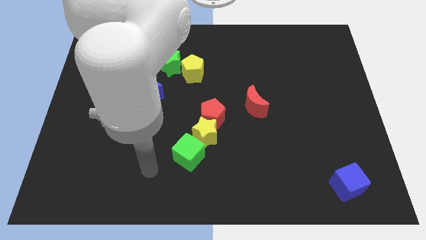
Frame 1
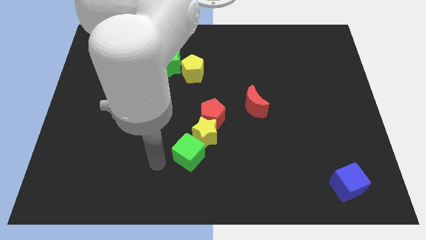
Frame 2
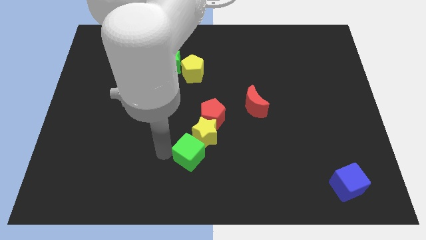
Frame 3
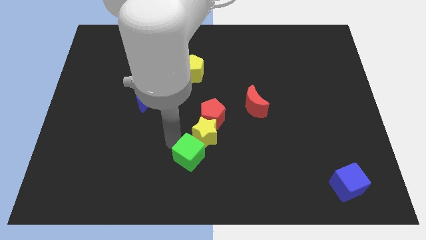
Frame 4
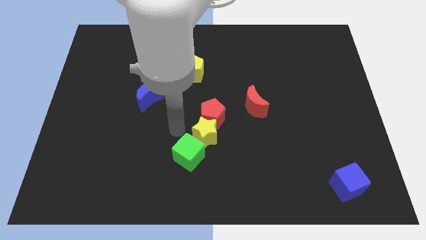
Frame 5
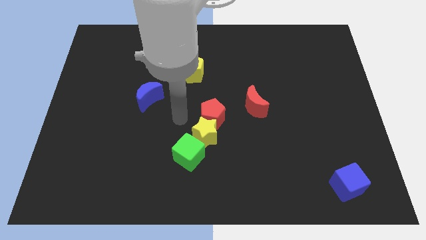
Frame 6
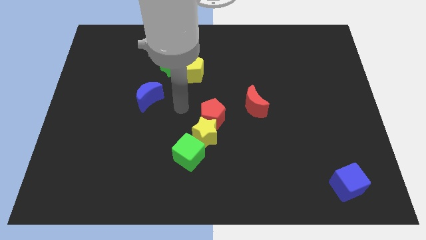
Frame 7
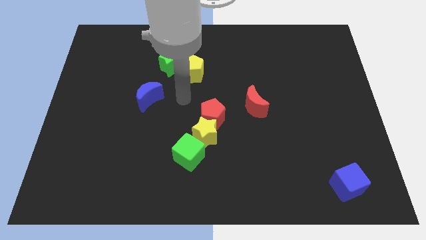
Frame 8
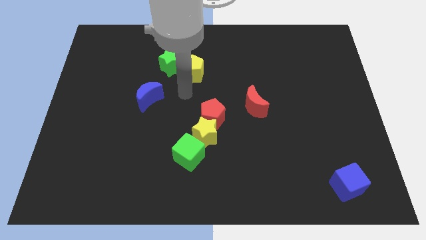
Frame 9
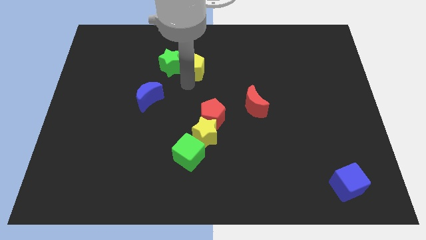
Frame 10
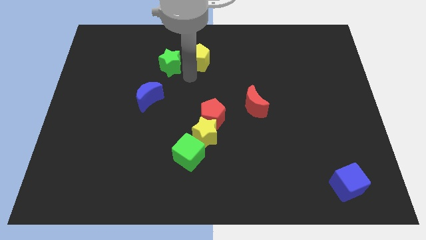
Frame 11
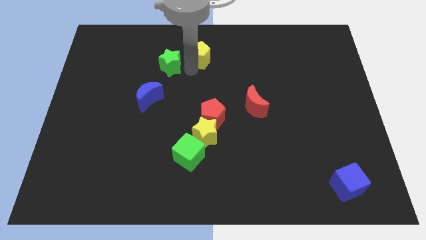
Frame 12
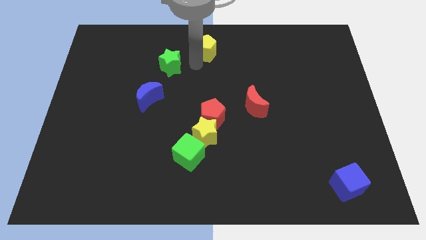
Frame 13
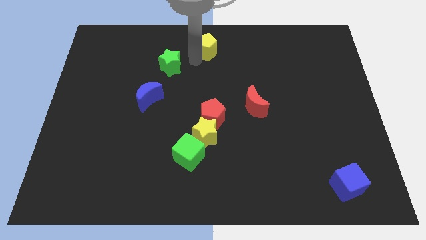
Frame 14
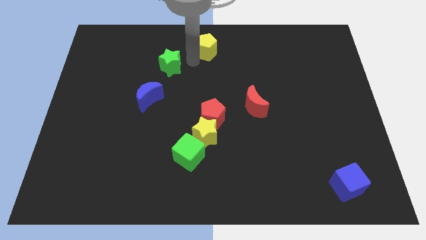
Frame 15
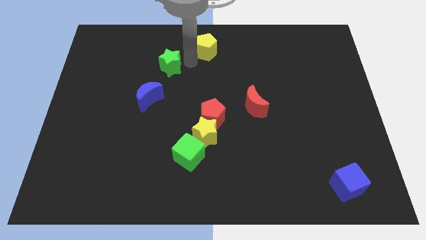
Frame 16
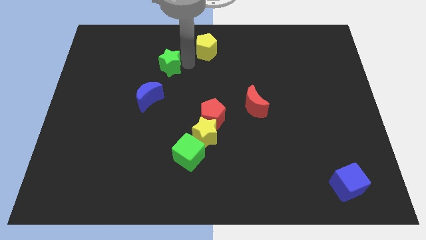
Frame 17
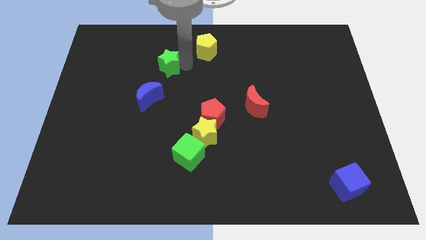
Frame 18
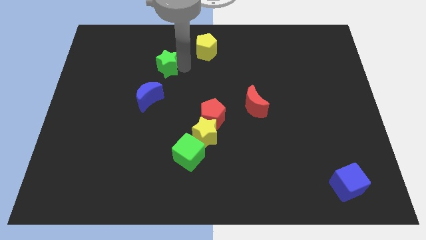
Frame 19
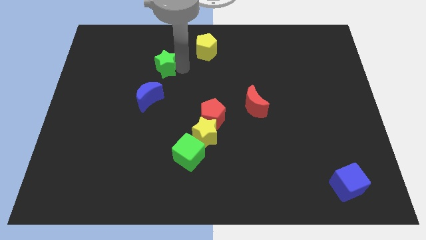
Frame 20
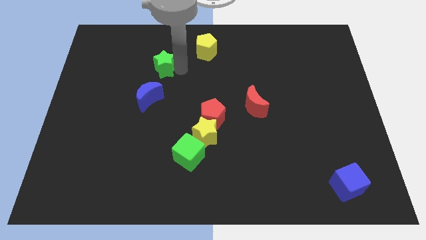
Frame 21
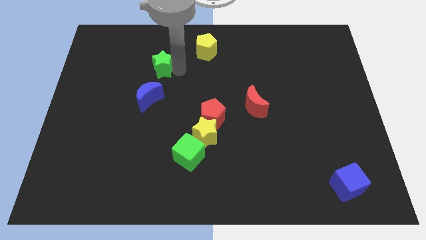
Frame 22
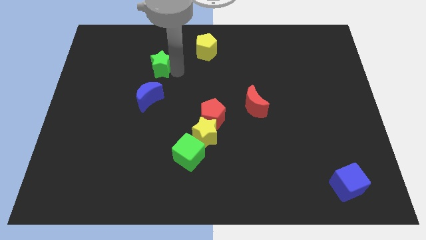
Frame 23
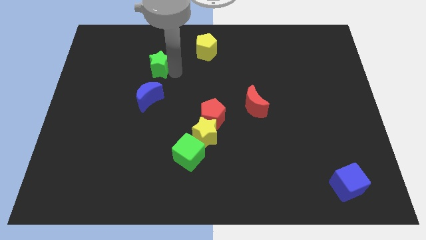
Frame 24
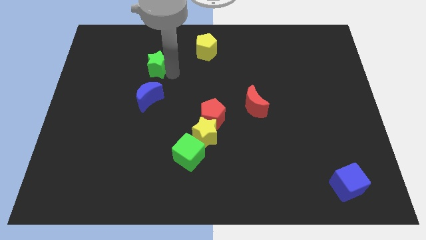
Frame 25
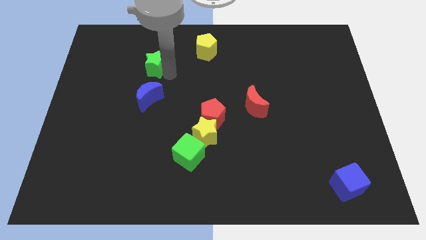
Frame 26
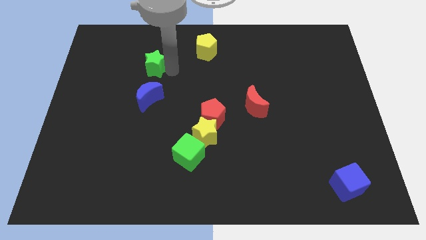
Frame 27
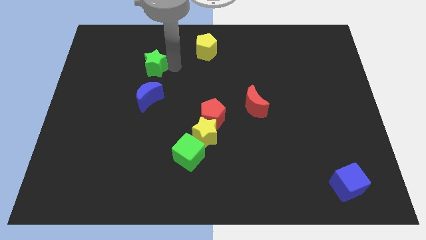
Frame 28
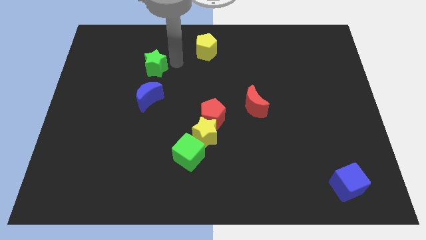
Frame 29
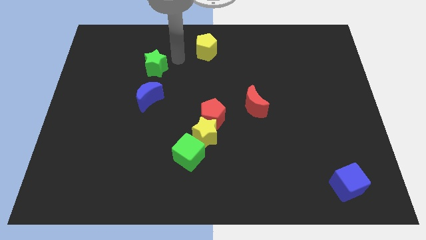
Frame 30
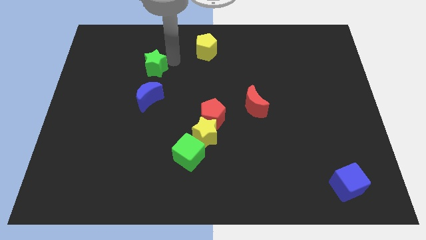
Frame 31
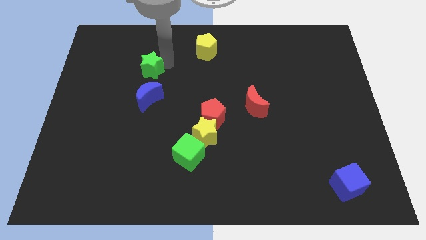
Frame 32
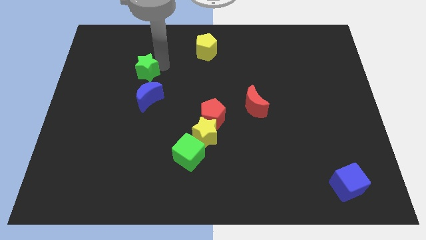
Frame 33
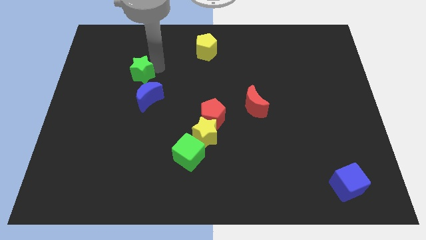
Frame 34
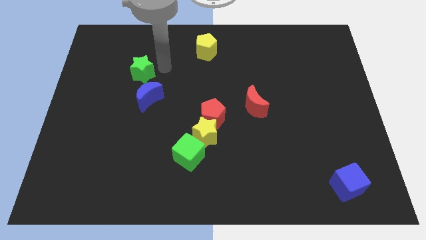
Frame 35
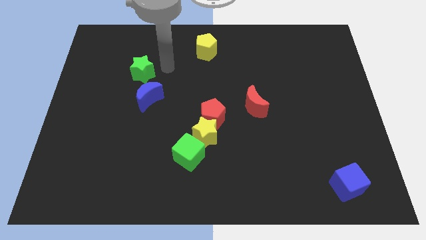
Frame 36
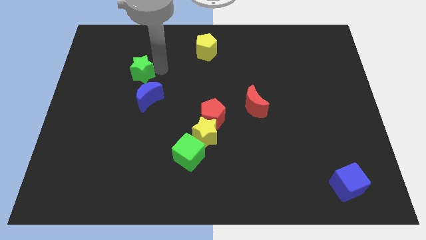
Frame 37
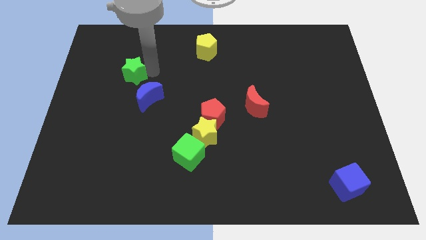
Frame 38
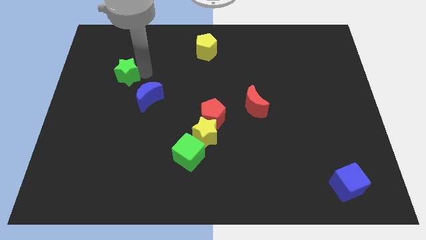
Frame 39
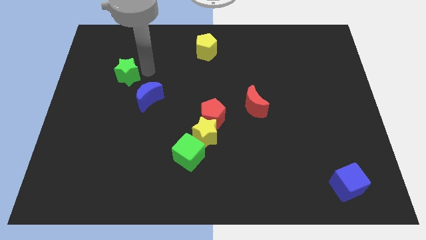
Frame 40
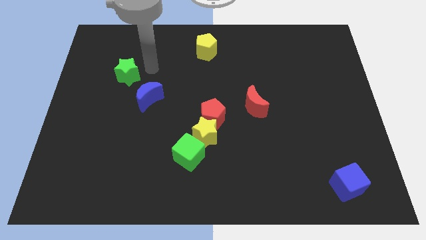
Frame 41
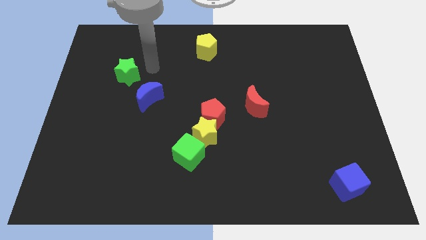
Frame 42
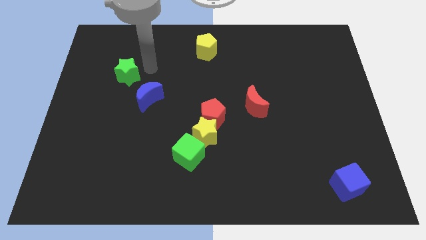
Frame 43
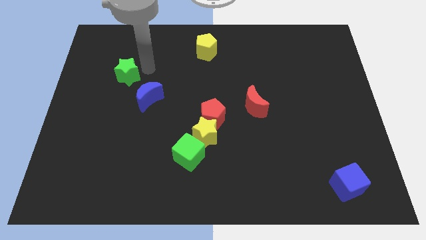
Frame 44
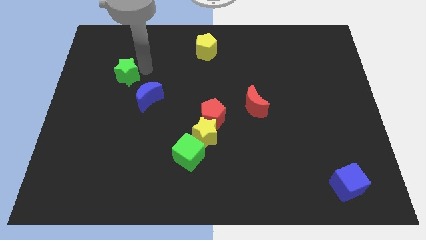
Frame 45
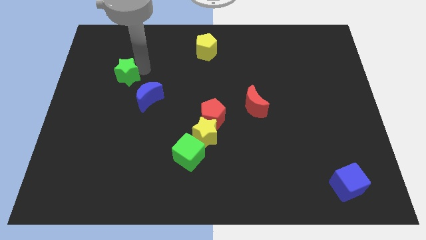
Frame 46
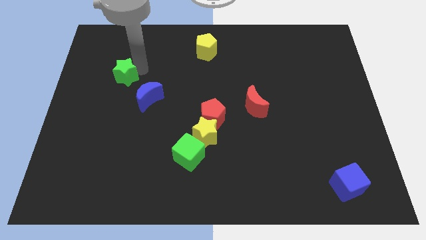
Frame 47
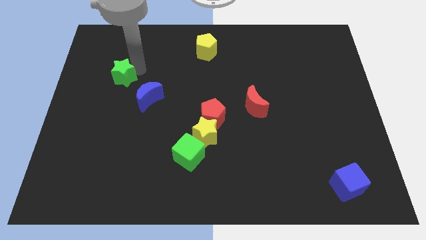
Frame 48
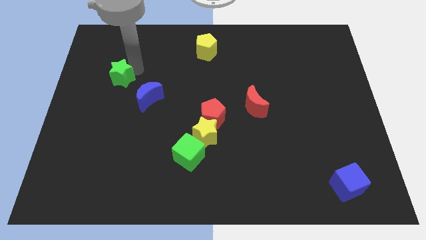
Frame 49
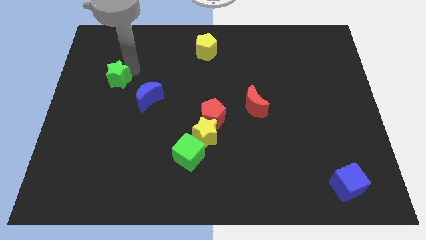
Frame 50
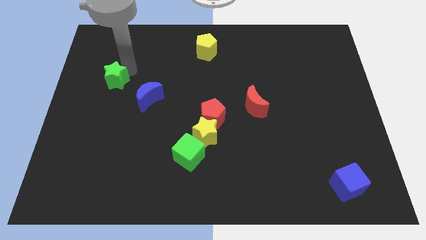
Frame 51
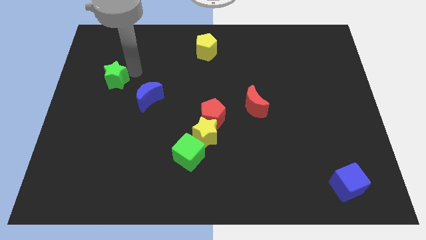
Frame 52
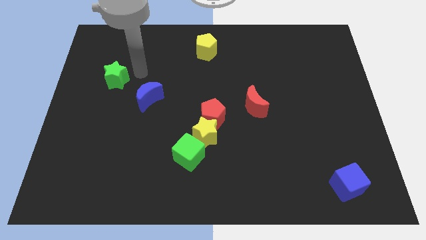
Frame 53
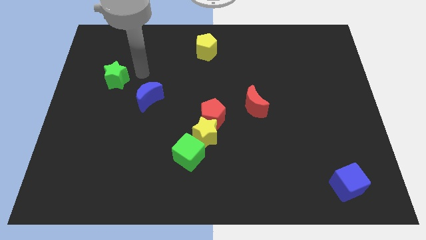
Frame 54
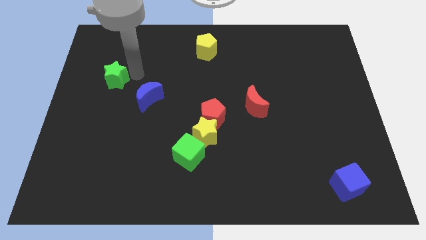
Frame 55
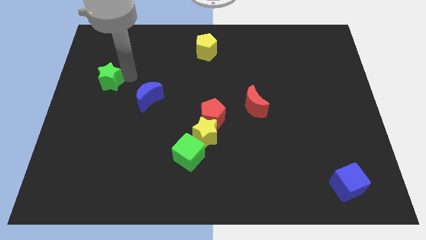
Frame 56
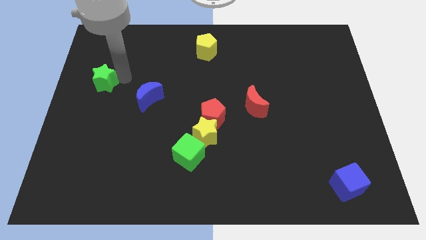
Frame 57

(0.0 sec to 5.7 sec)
push the green star to the center left

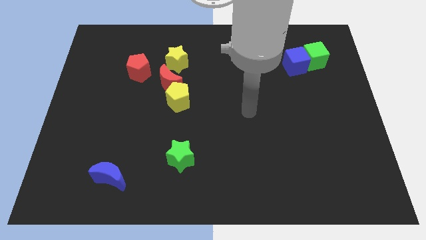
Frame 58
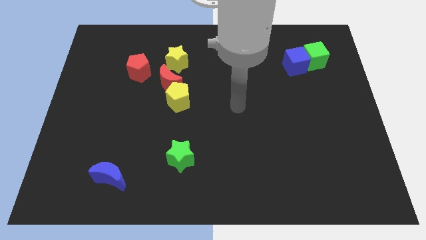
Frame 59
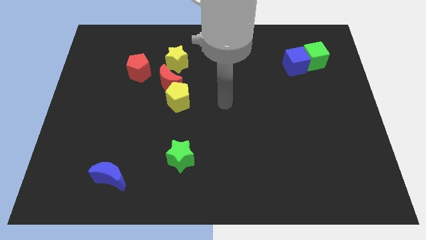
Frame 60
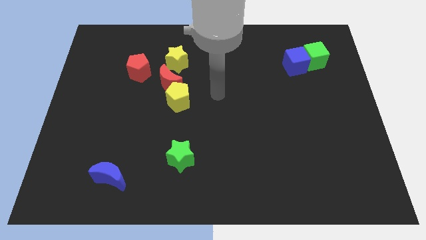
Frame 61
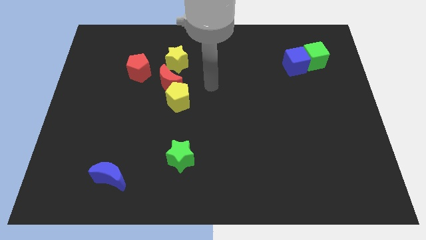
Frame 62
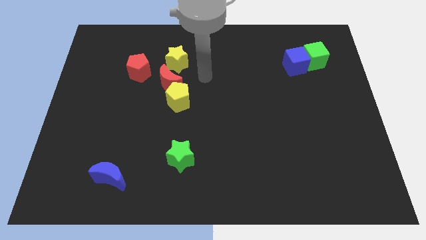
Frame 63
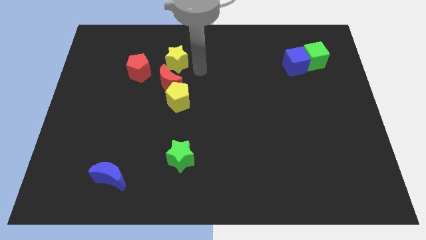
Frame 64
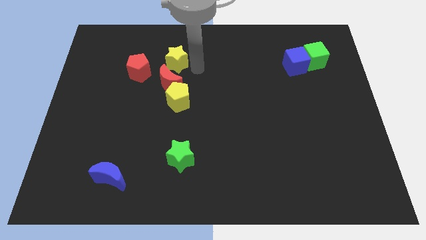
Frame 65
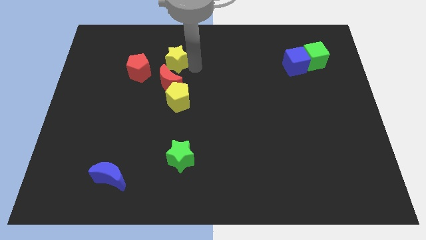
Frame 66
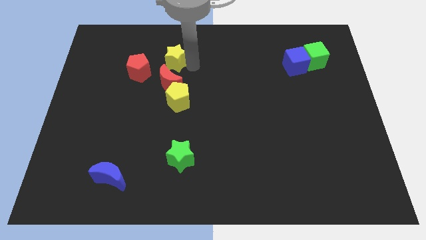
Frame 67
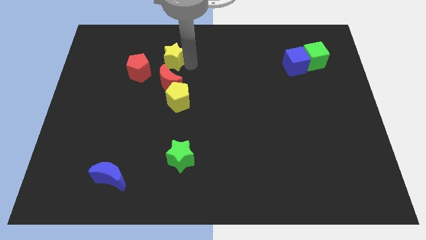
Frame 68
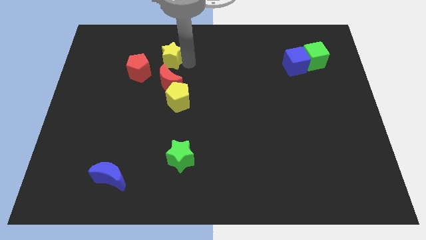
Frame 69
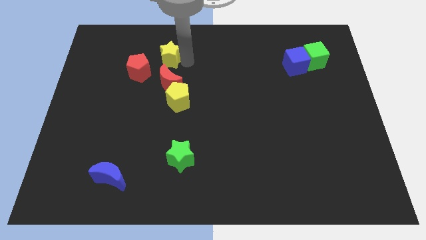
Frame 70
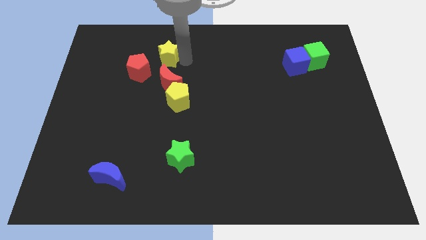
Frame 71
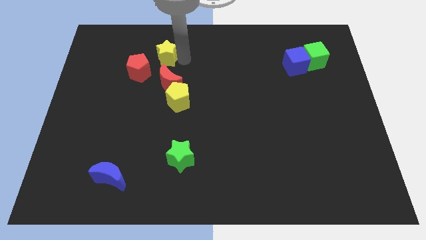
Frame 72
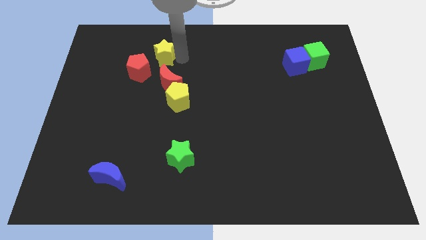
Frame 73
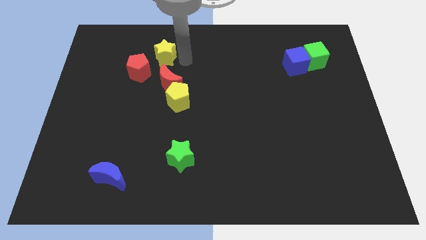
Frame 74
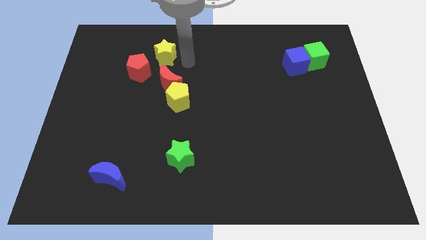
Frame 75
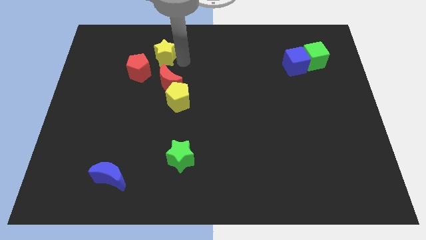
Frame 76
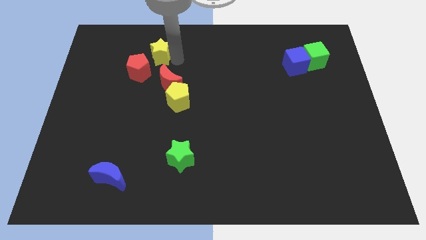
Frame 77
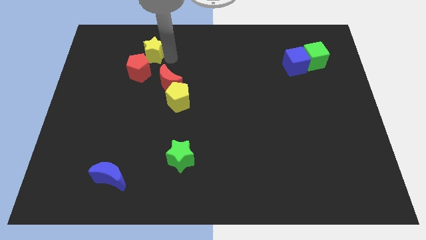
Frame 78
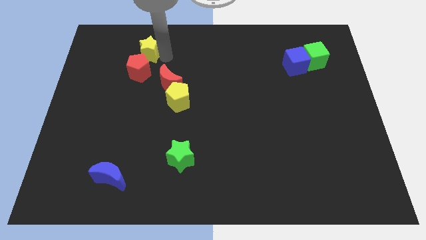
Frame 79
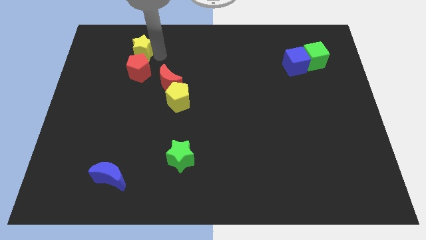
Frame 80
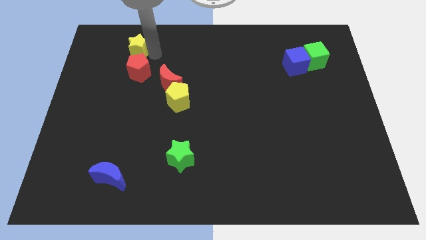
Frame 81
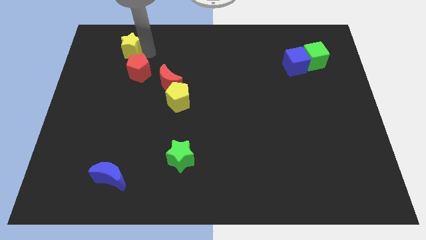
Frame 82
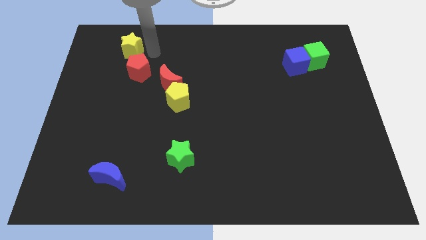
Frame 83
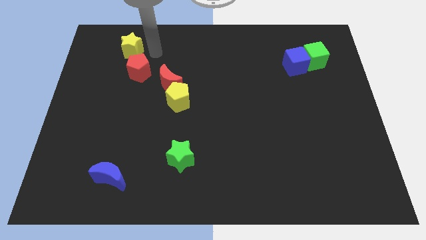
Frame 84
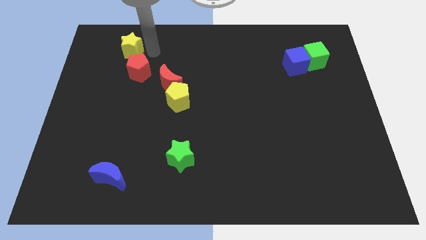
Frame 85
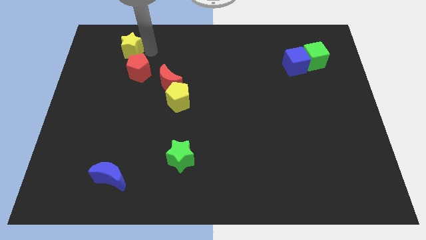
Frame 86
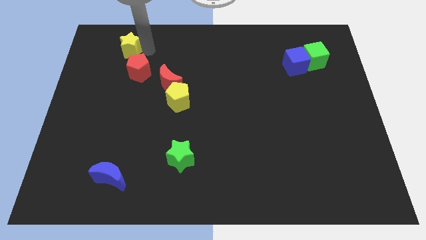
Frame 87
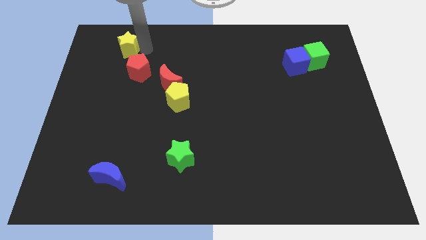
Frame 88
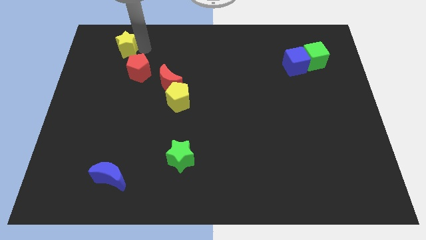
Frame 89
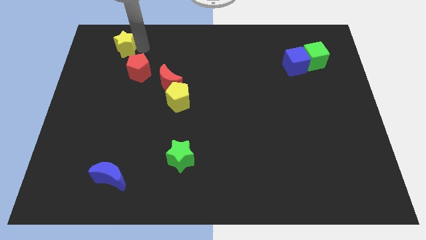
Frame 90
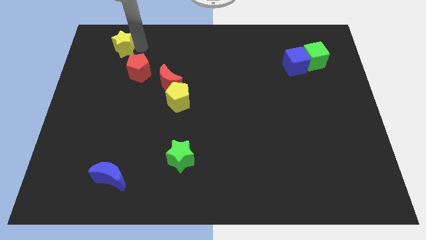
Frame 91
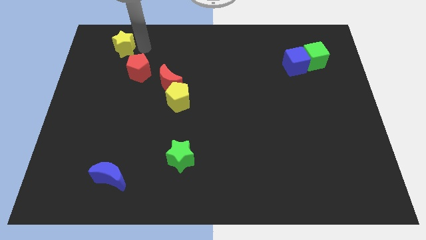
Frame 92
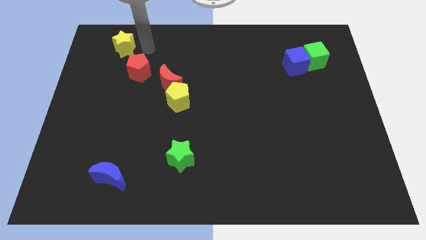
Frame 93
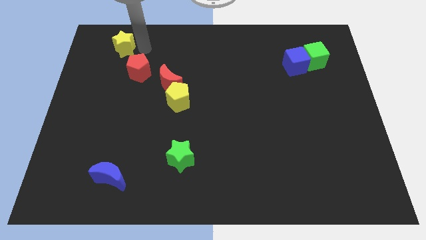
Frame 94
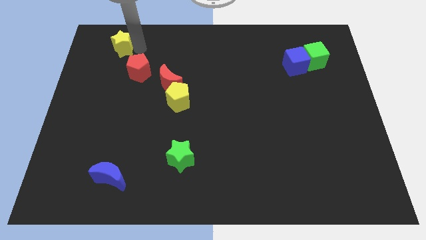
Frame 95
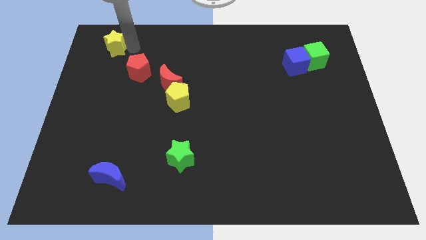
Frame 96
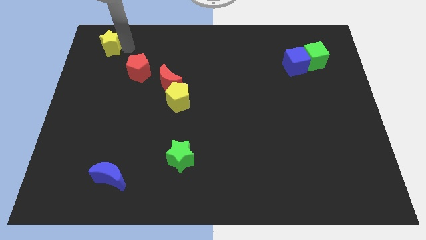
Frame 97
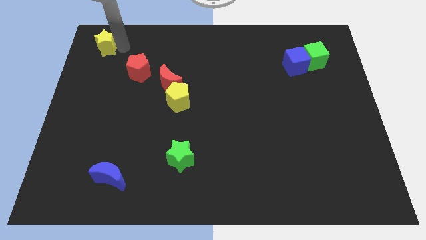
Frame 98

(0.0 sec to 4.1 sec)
move the yellow star to the top left of the board
